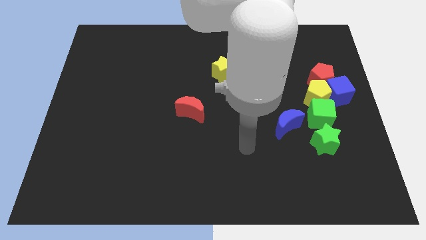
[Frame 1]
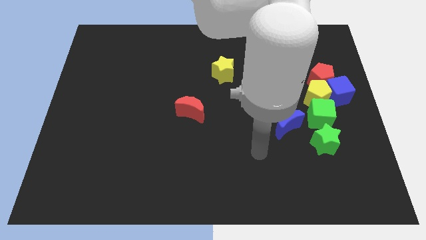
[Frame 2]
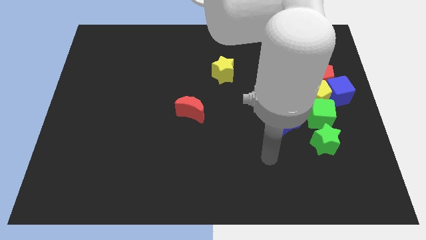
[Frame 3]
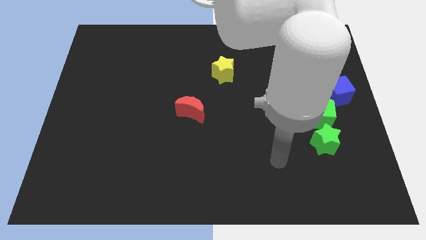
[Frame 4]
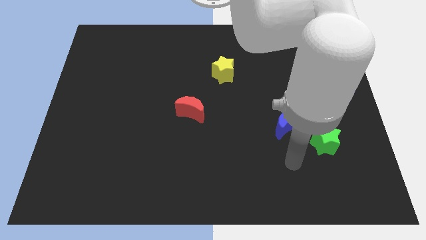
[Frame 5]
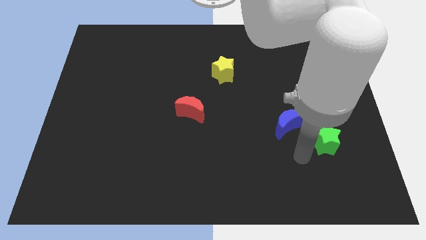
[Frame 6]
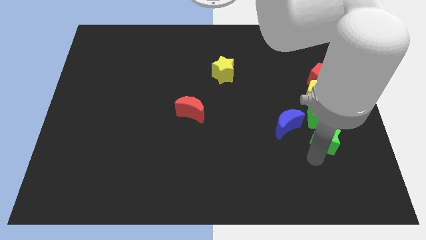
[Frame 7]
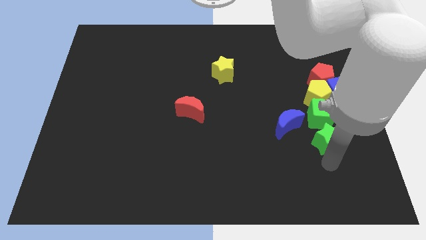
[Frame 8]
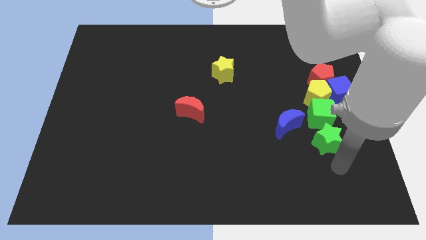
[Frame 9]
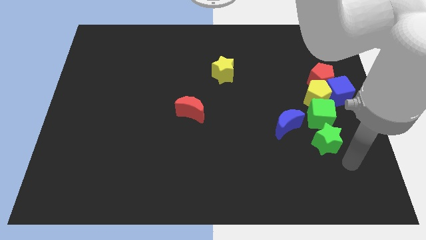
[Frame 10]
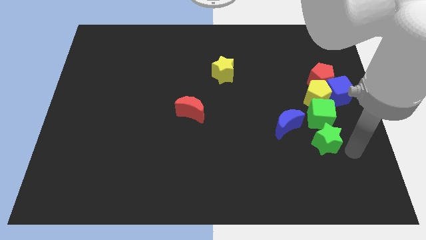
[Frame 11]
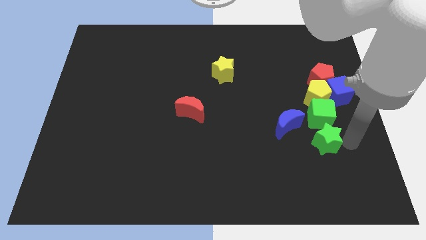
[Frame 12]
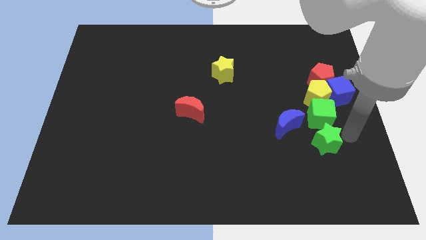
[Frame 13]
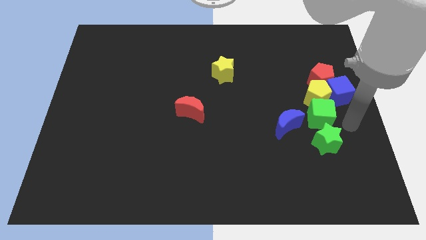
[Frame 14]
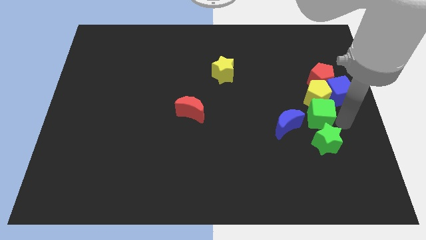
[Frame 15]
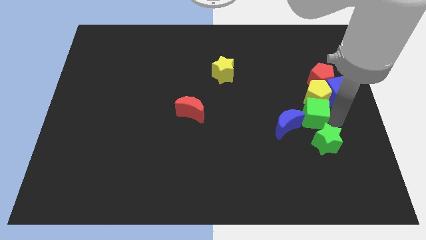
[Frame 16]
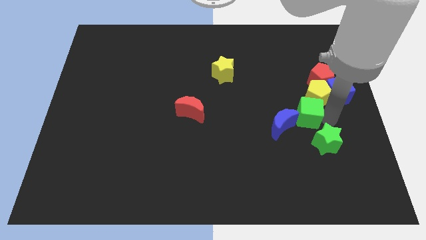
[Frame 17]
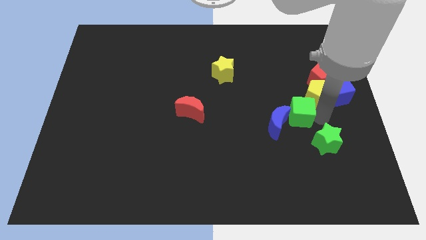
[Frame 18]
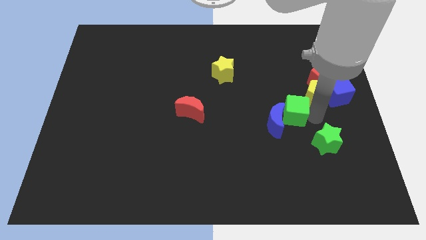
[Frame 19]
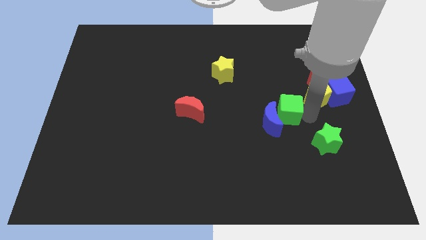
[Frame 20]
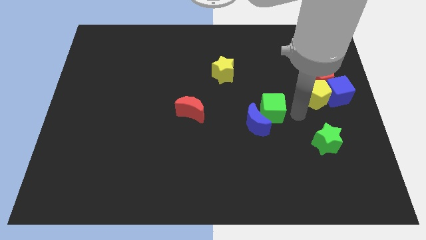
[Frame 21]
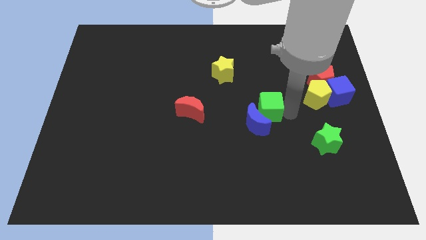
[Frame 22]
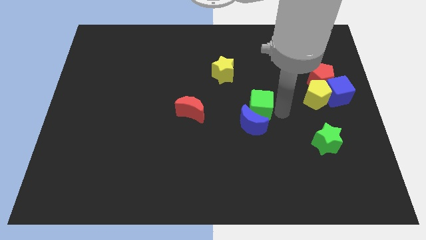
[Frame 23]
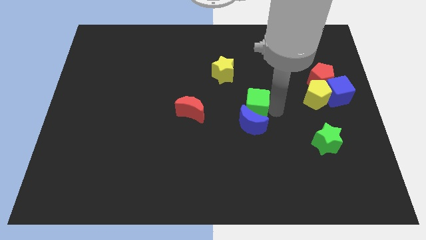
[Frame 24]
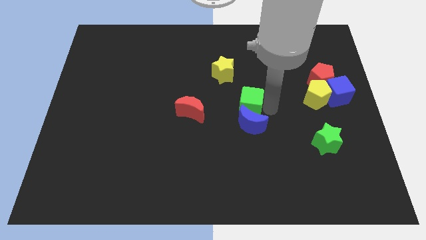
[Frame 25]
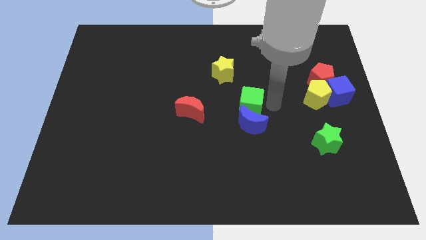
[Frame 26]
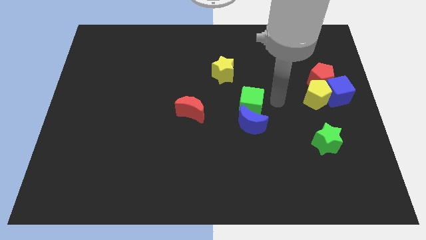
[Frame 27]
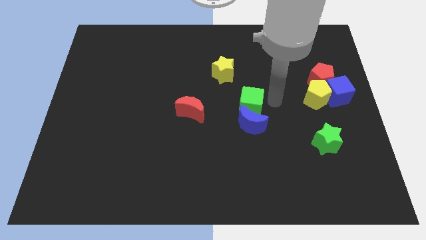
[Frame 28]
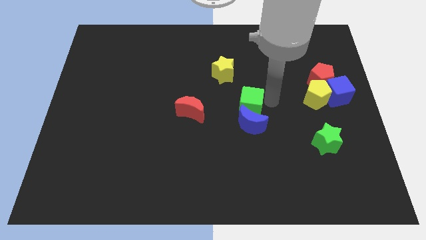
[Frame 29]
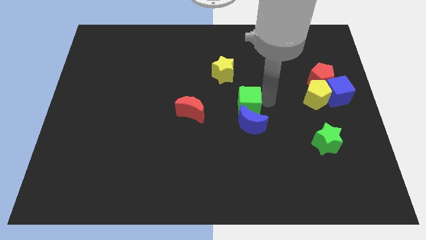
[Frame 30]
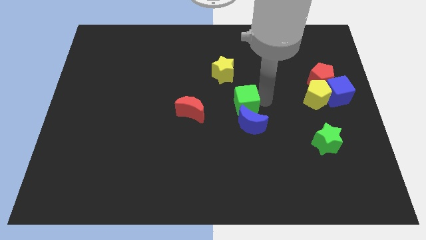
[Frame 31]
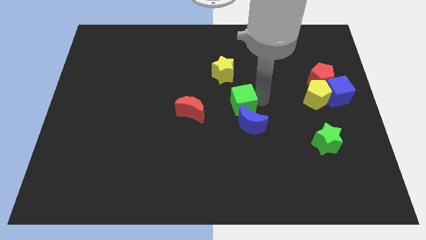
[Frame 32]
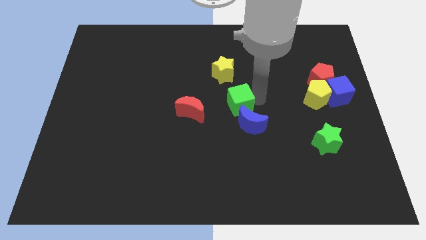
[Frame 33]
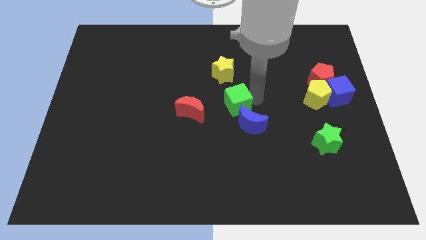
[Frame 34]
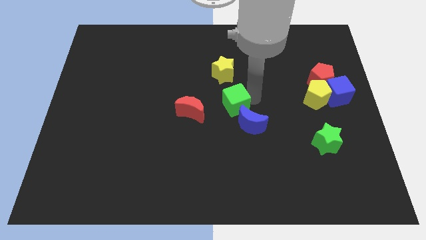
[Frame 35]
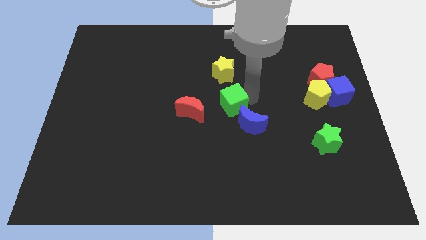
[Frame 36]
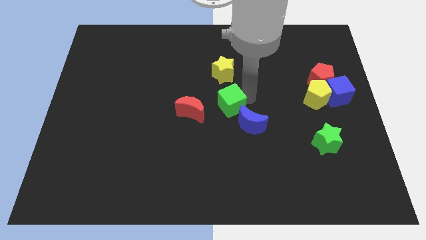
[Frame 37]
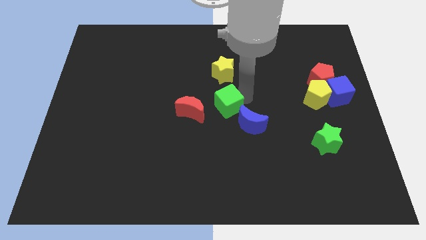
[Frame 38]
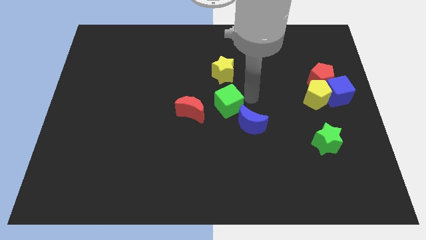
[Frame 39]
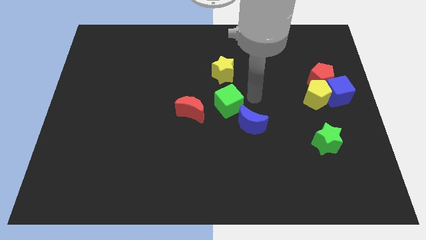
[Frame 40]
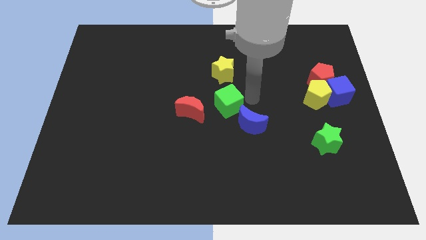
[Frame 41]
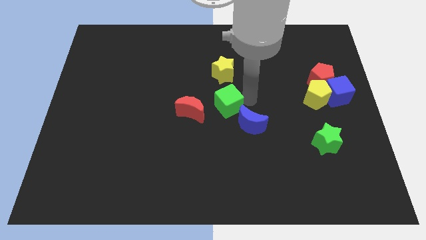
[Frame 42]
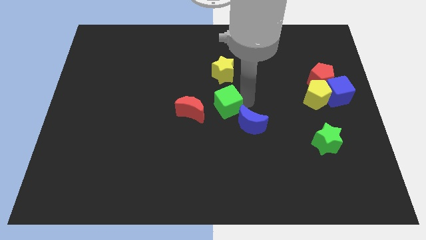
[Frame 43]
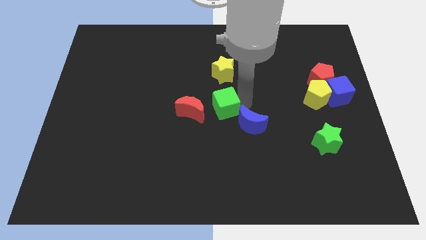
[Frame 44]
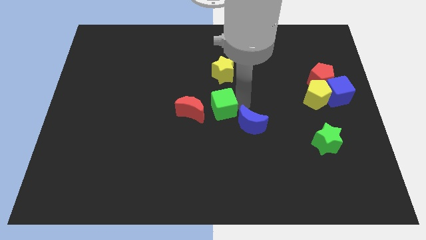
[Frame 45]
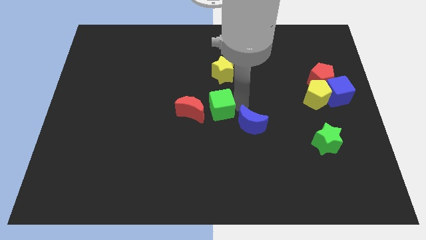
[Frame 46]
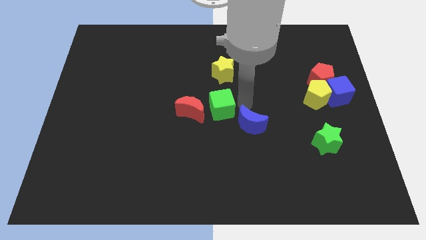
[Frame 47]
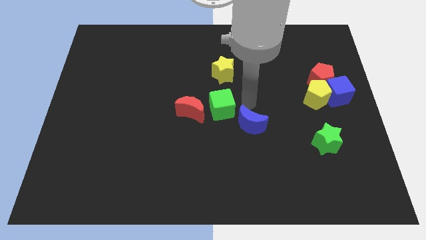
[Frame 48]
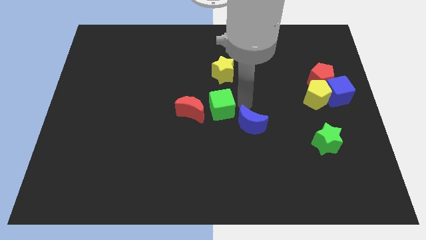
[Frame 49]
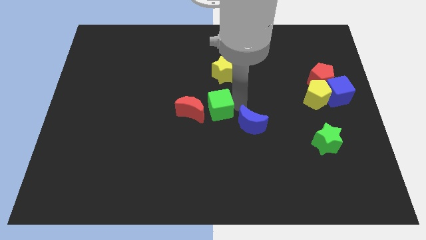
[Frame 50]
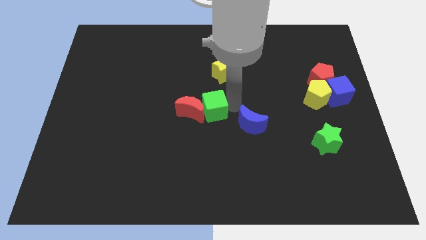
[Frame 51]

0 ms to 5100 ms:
put the green cube next to the red moon
